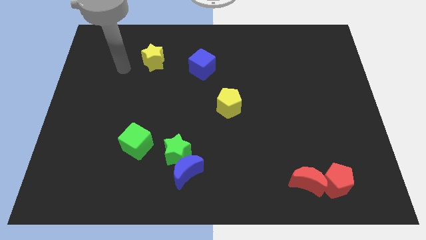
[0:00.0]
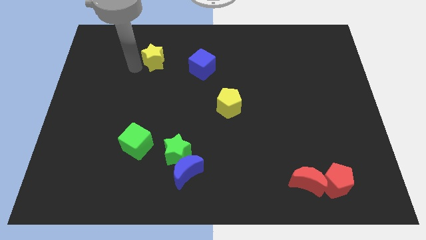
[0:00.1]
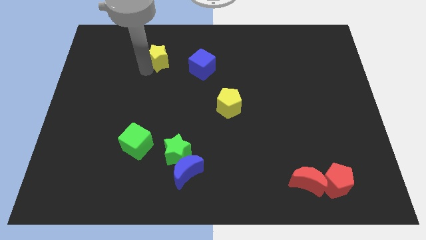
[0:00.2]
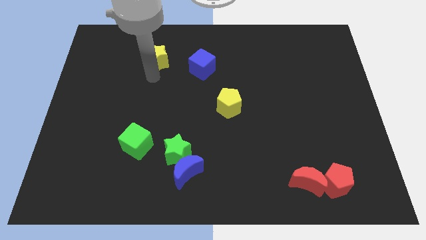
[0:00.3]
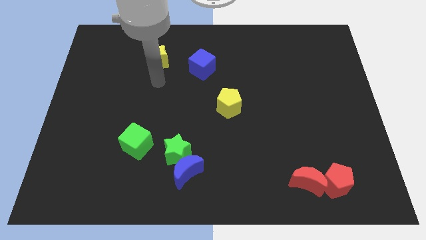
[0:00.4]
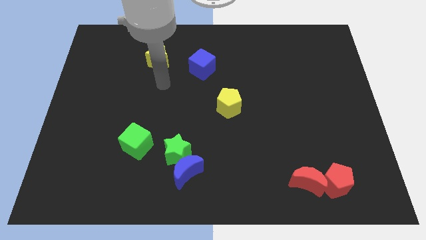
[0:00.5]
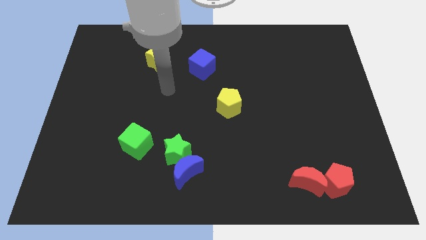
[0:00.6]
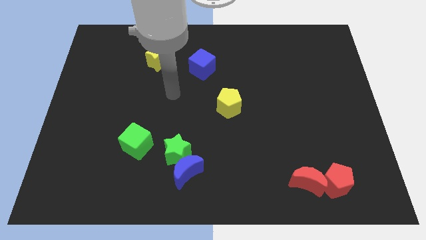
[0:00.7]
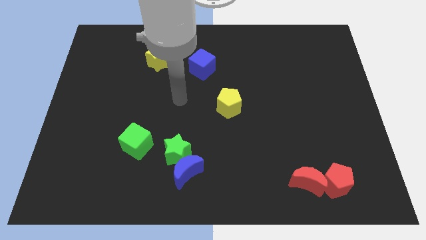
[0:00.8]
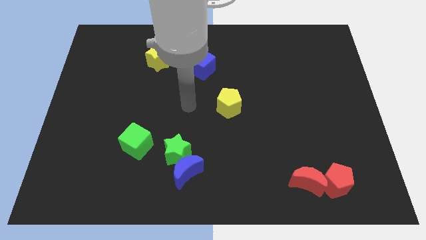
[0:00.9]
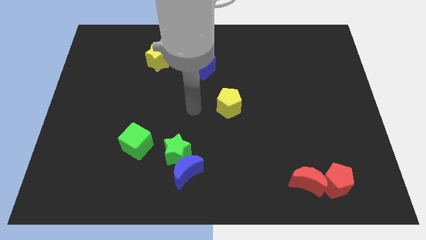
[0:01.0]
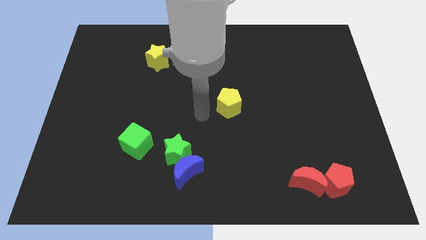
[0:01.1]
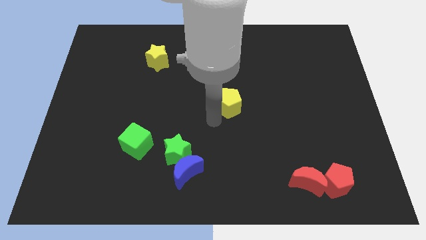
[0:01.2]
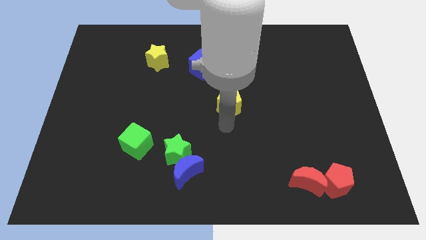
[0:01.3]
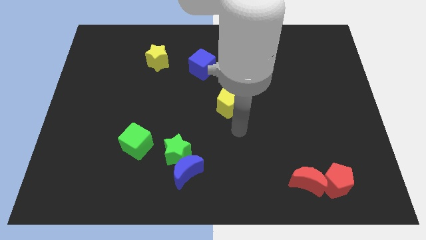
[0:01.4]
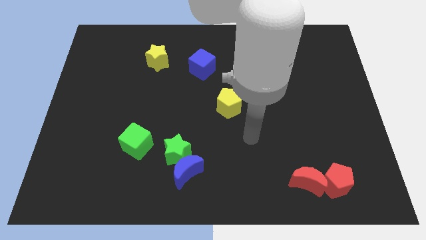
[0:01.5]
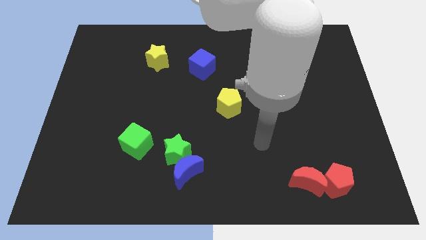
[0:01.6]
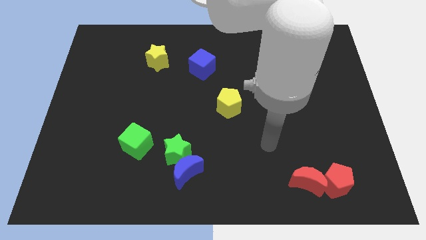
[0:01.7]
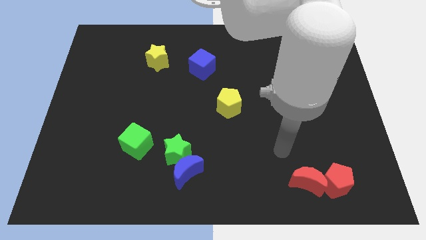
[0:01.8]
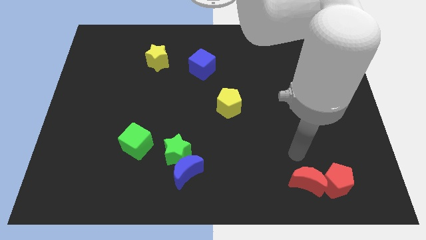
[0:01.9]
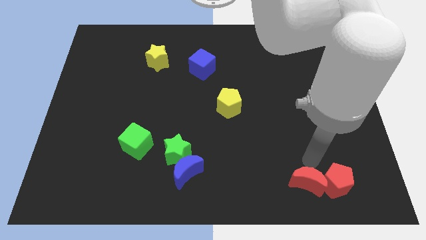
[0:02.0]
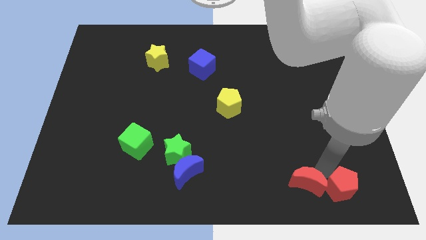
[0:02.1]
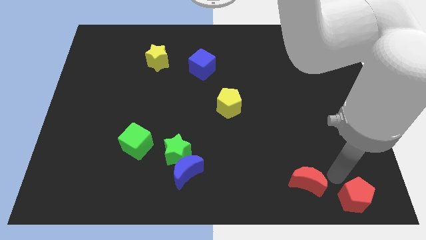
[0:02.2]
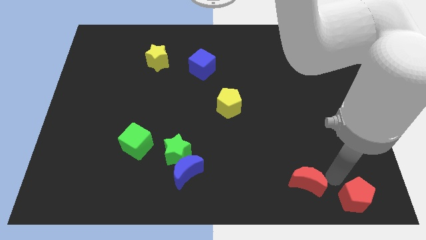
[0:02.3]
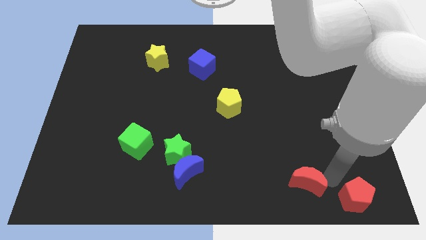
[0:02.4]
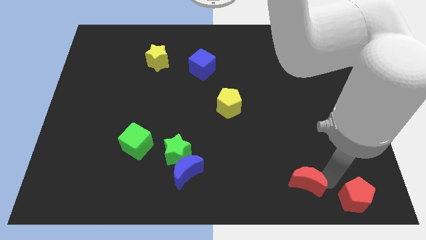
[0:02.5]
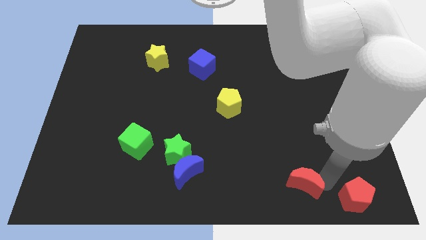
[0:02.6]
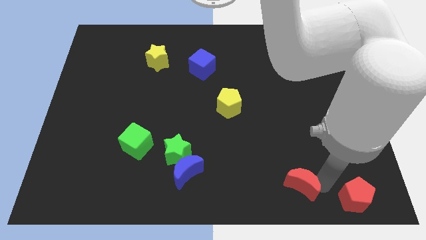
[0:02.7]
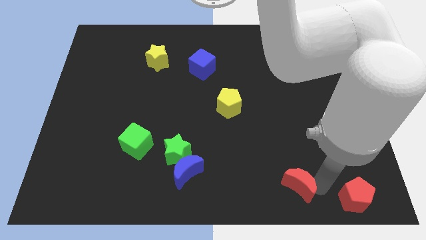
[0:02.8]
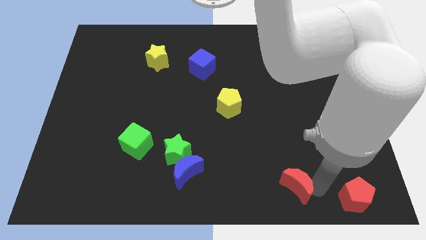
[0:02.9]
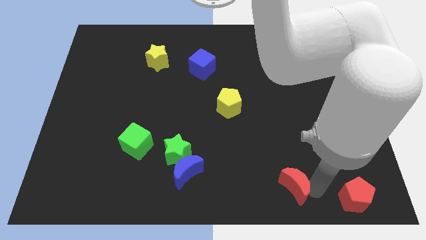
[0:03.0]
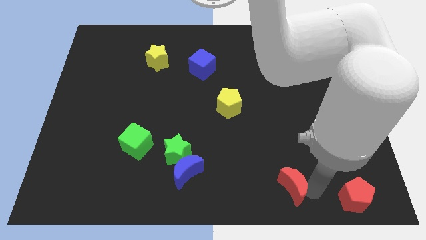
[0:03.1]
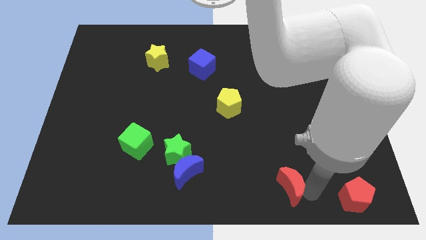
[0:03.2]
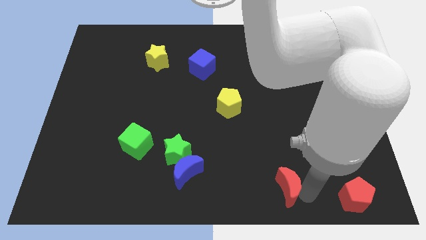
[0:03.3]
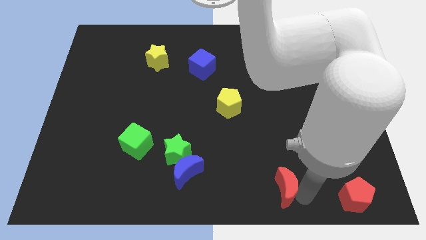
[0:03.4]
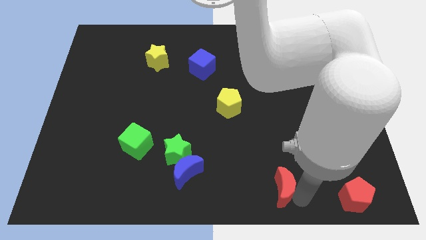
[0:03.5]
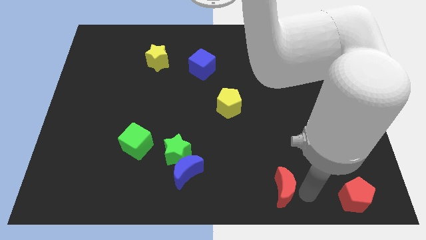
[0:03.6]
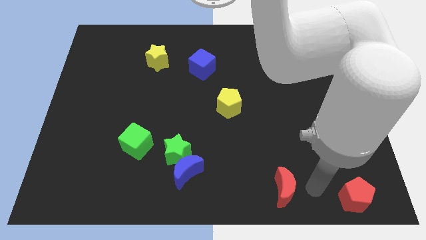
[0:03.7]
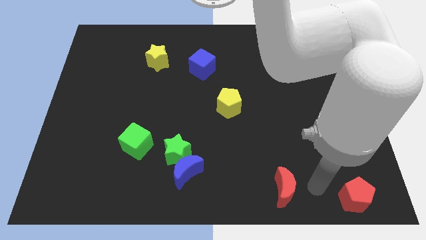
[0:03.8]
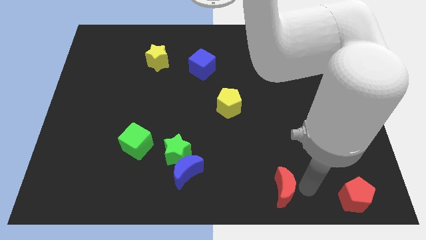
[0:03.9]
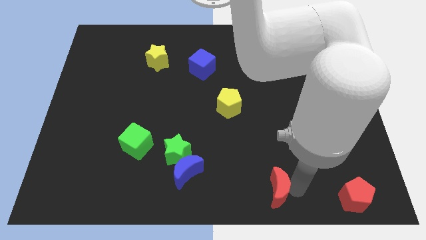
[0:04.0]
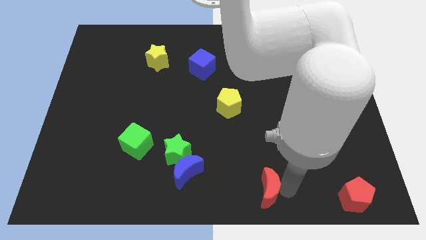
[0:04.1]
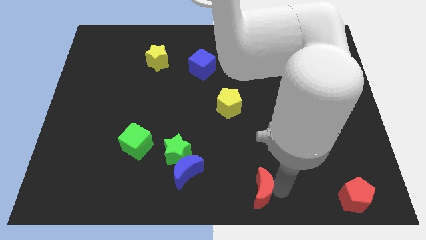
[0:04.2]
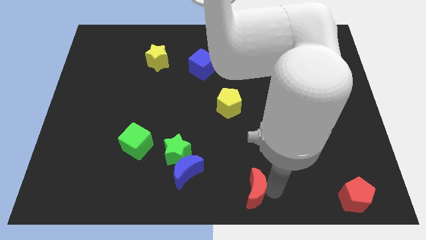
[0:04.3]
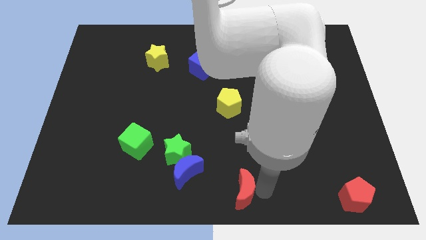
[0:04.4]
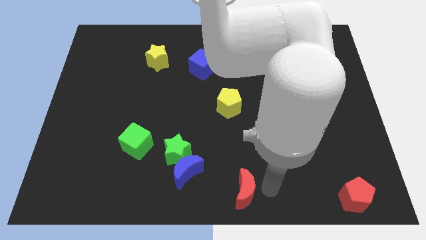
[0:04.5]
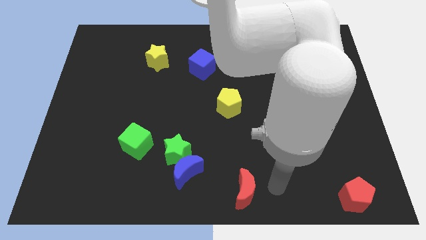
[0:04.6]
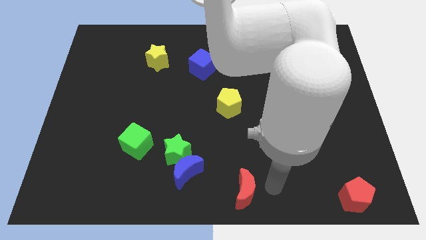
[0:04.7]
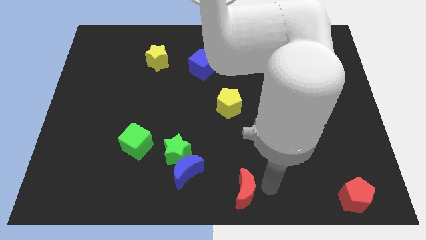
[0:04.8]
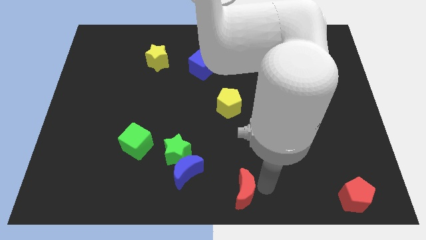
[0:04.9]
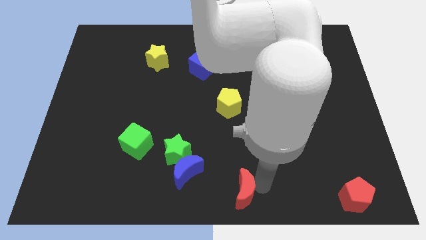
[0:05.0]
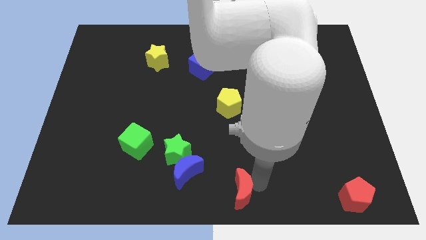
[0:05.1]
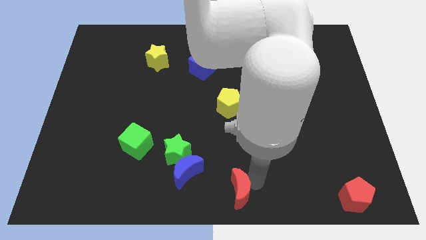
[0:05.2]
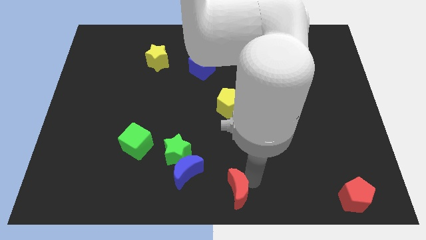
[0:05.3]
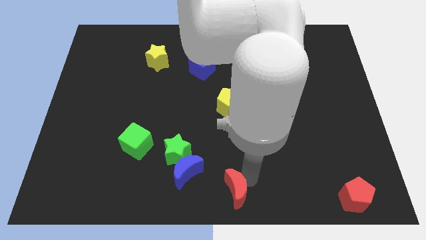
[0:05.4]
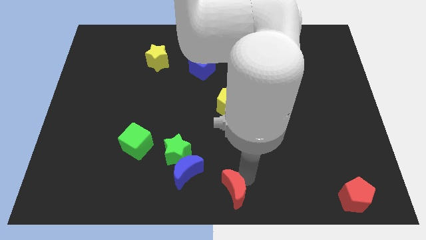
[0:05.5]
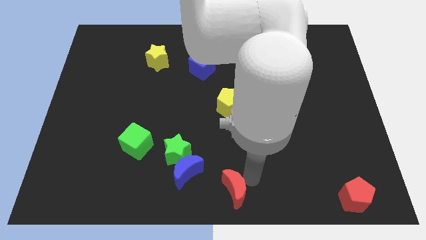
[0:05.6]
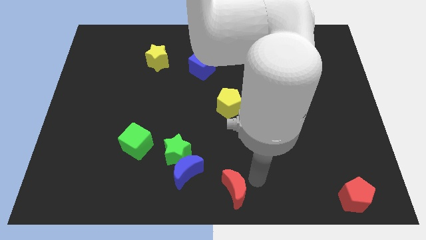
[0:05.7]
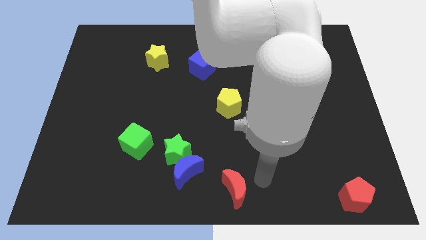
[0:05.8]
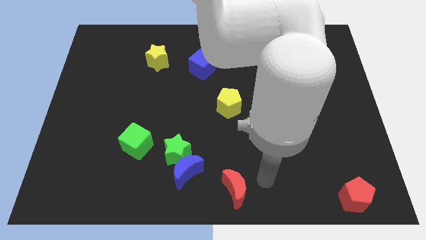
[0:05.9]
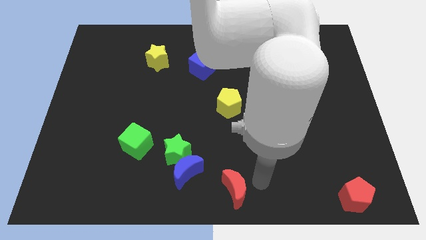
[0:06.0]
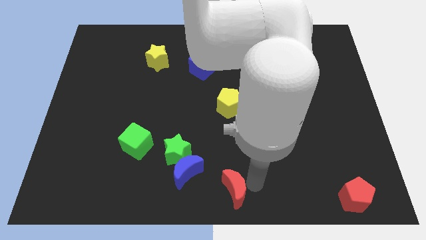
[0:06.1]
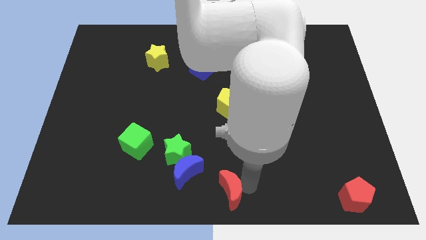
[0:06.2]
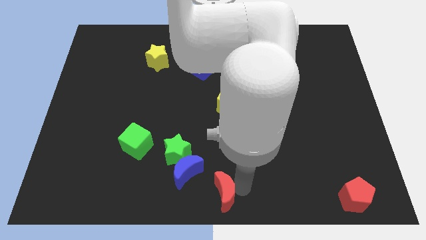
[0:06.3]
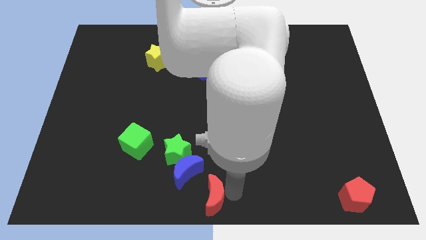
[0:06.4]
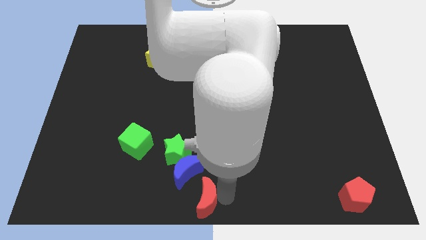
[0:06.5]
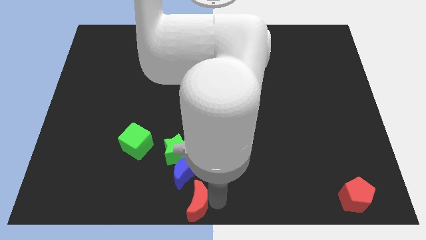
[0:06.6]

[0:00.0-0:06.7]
push the red moon left

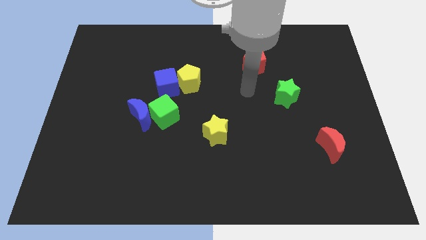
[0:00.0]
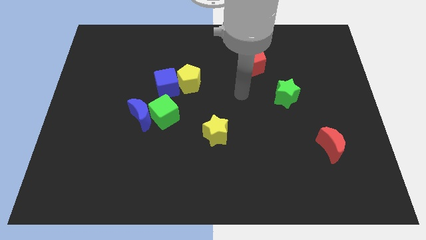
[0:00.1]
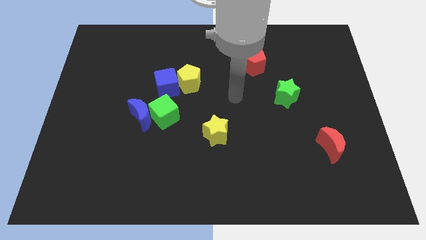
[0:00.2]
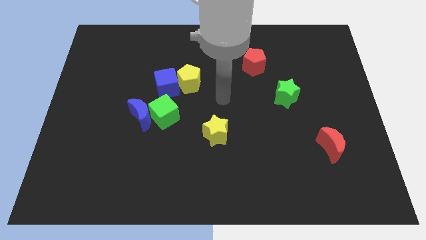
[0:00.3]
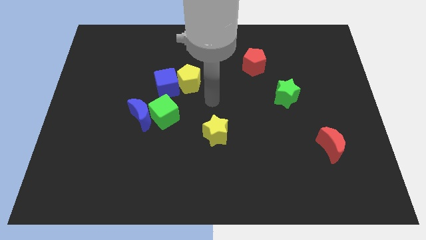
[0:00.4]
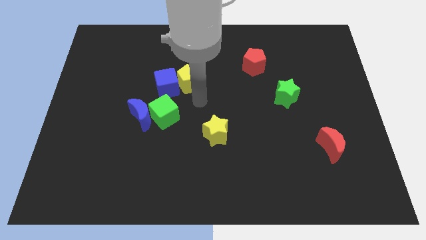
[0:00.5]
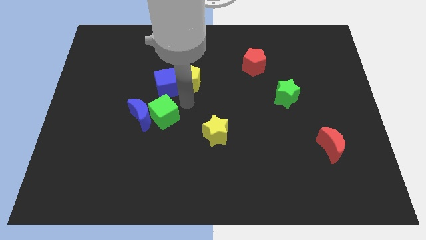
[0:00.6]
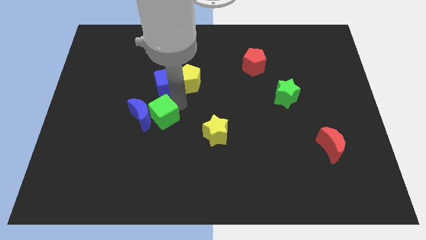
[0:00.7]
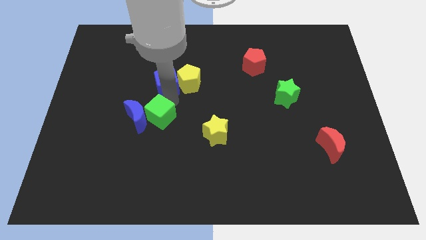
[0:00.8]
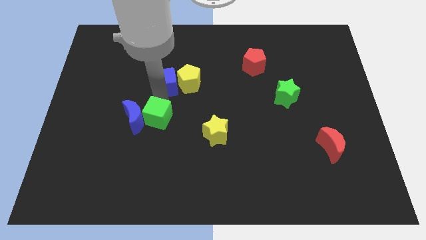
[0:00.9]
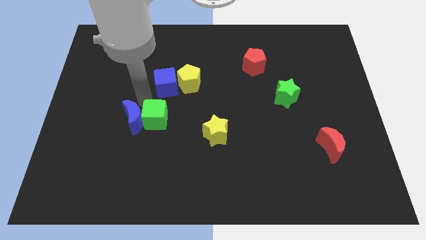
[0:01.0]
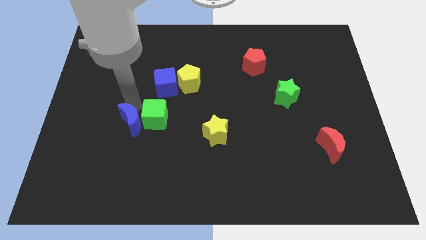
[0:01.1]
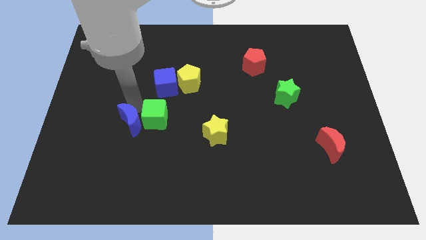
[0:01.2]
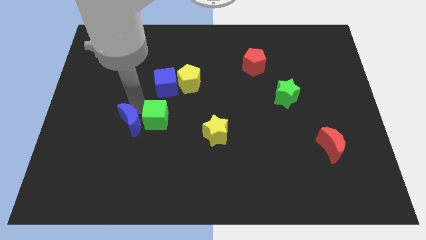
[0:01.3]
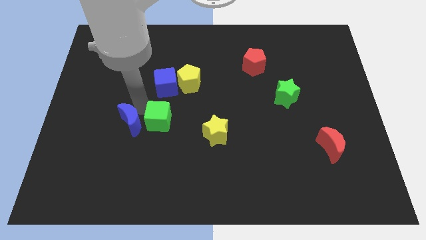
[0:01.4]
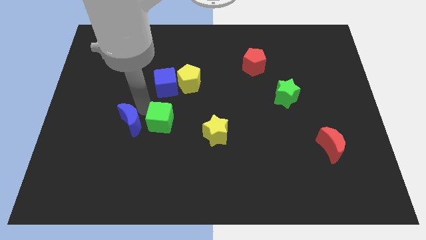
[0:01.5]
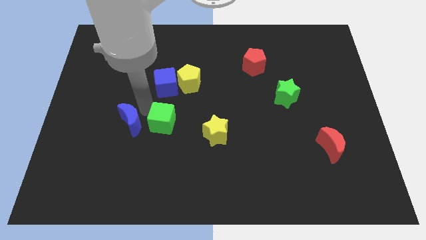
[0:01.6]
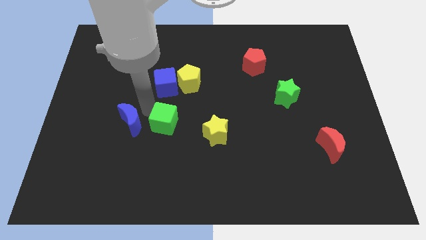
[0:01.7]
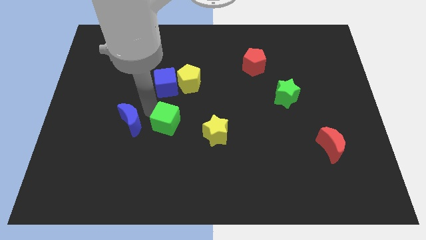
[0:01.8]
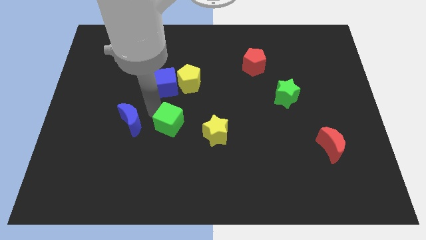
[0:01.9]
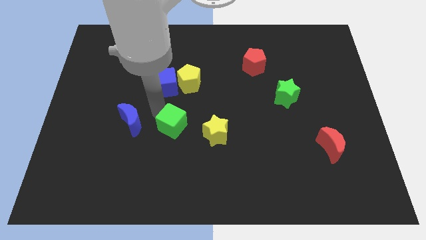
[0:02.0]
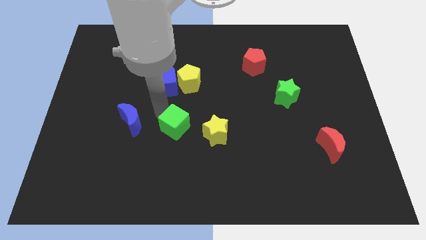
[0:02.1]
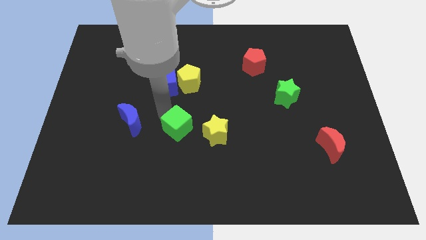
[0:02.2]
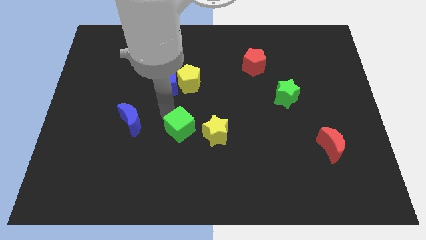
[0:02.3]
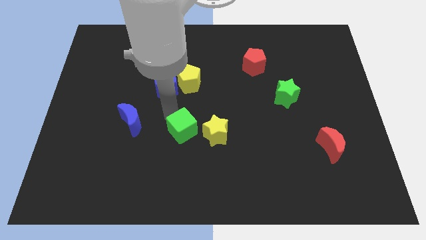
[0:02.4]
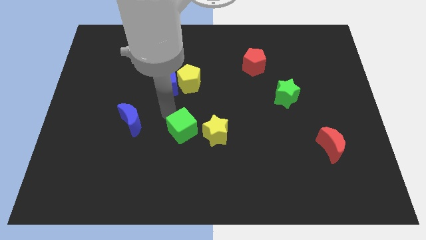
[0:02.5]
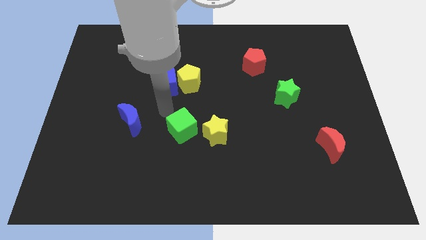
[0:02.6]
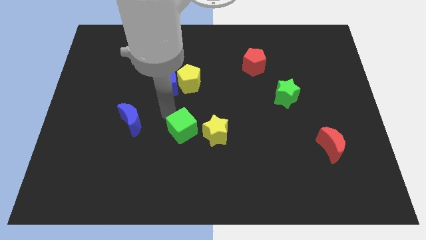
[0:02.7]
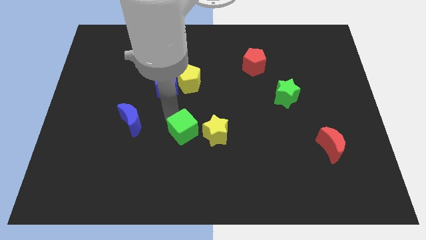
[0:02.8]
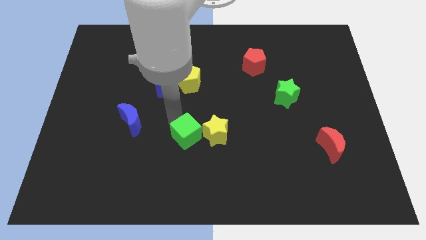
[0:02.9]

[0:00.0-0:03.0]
slightly slide the green cube downwards and then to the right
